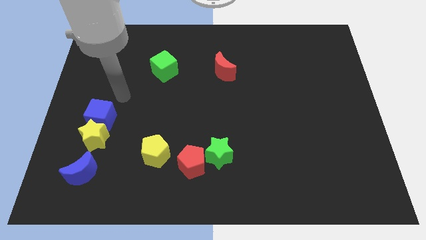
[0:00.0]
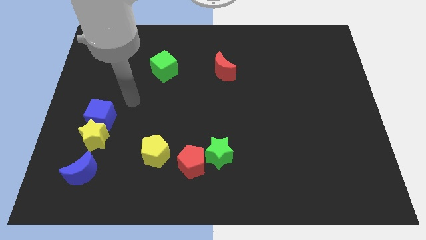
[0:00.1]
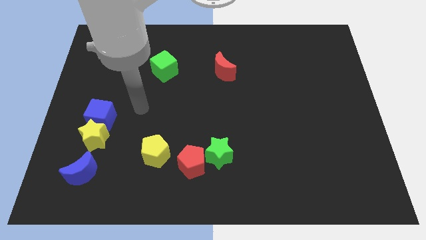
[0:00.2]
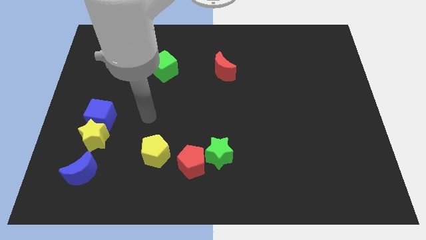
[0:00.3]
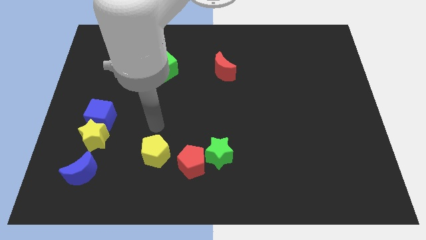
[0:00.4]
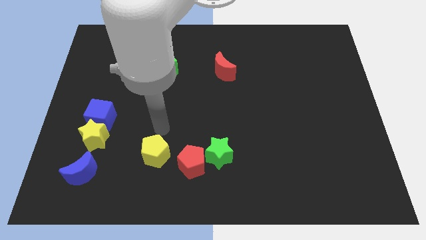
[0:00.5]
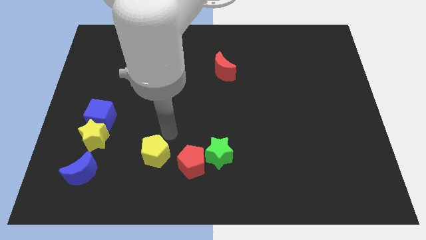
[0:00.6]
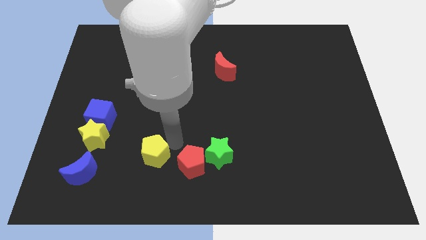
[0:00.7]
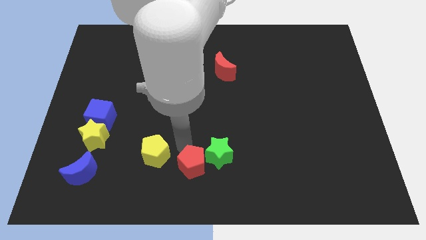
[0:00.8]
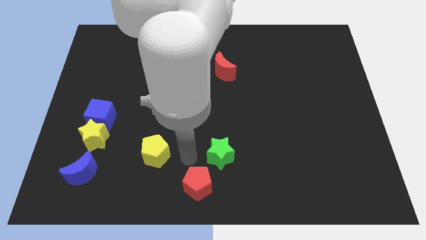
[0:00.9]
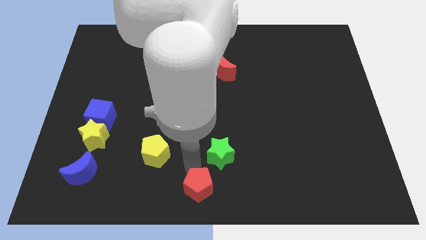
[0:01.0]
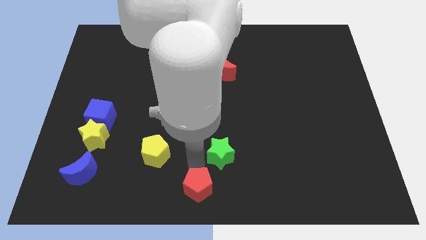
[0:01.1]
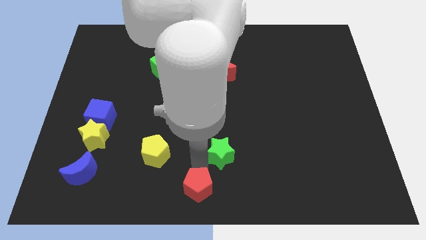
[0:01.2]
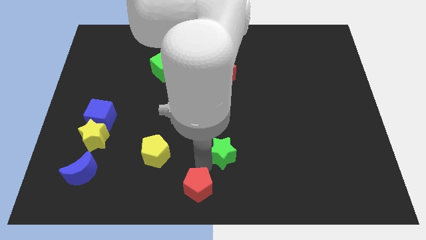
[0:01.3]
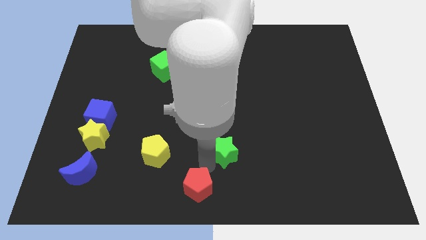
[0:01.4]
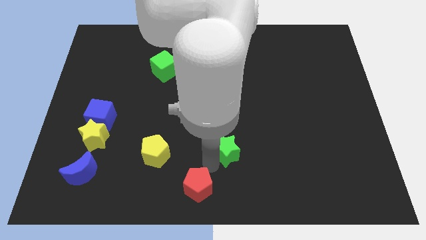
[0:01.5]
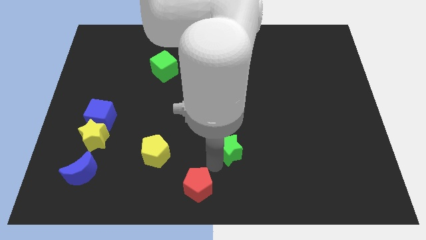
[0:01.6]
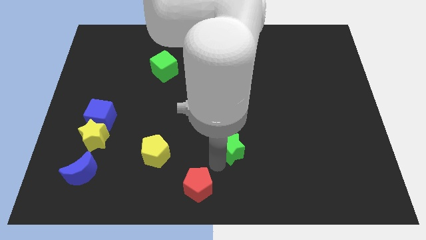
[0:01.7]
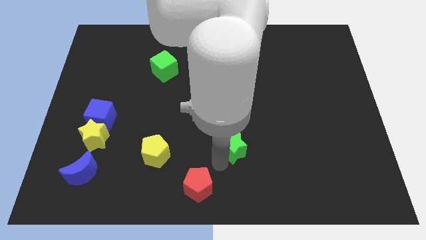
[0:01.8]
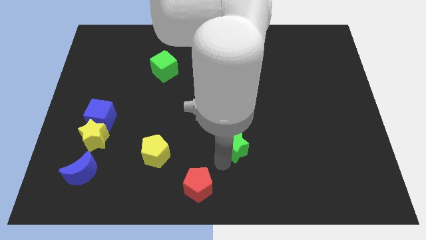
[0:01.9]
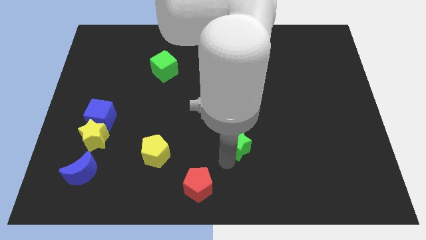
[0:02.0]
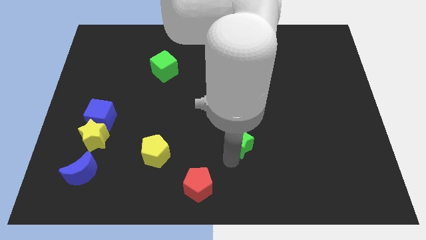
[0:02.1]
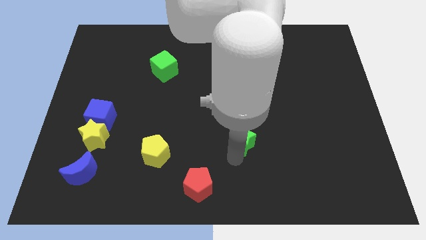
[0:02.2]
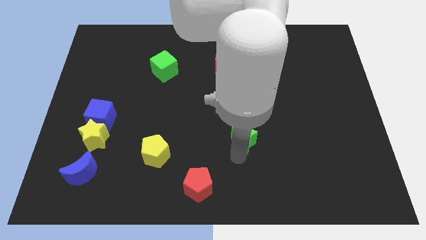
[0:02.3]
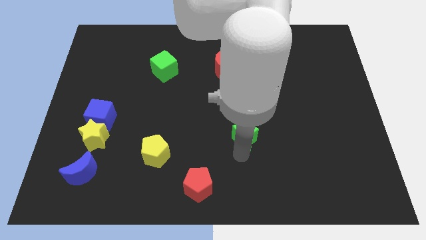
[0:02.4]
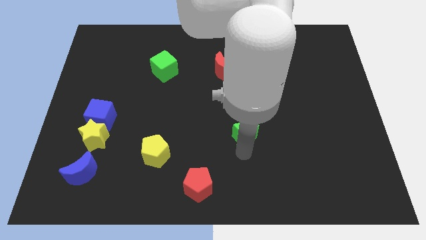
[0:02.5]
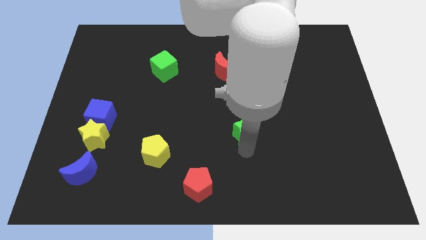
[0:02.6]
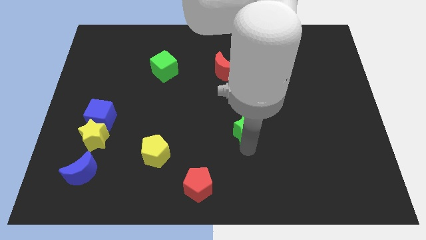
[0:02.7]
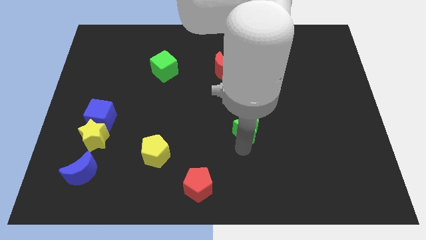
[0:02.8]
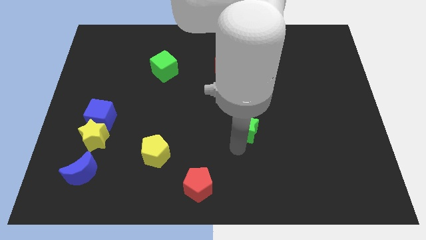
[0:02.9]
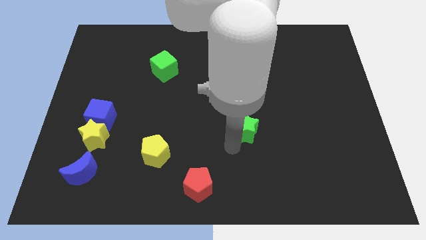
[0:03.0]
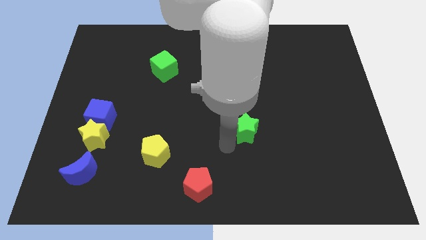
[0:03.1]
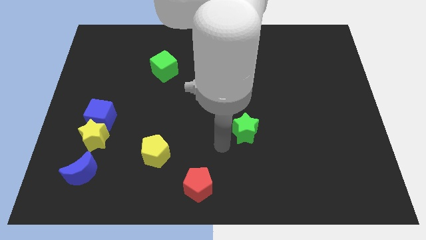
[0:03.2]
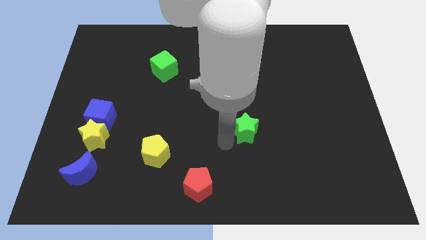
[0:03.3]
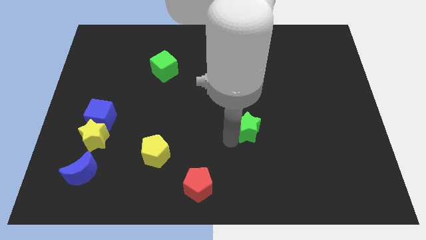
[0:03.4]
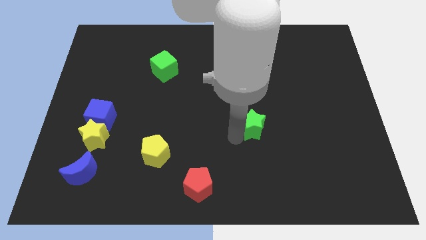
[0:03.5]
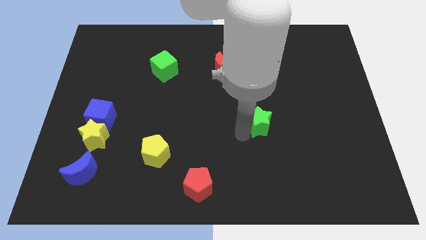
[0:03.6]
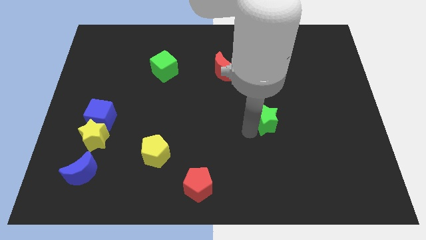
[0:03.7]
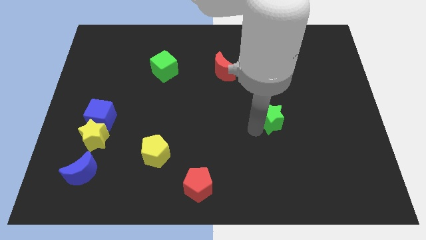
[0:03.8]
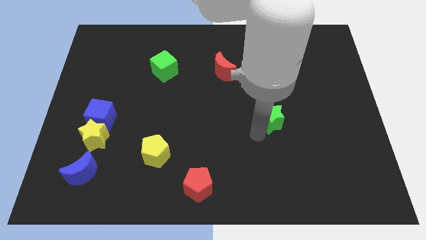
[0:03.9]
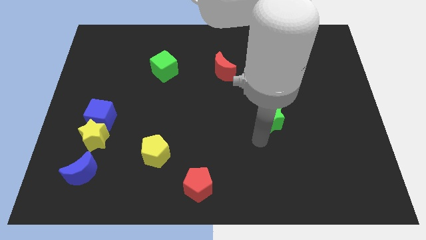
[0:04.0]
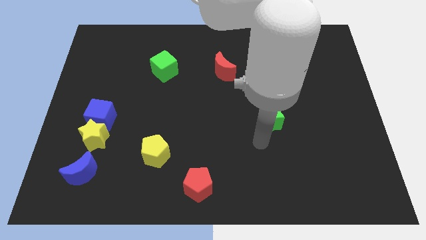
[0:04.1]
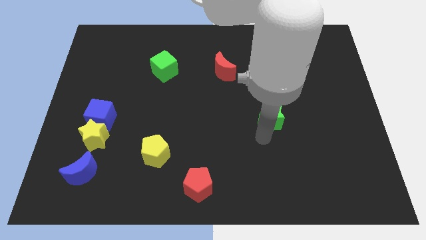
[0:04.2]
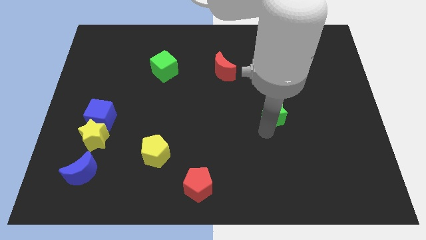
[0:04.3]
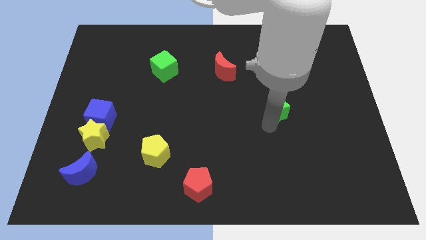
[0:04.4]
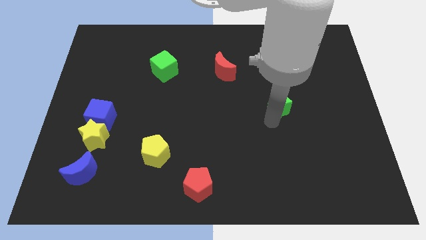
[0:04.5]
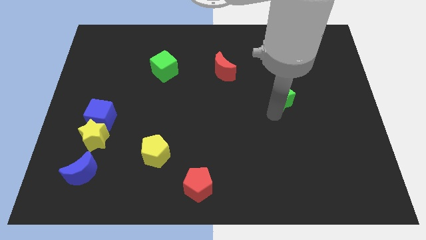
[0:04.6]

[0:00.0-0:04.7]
move the green star up and to the right diagonally

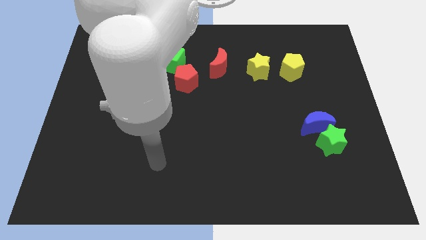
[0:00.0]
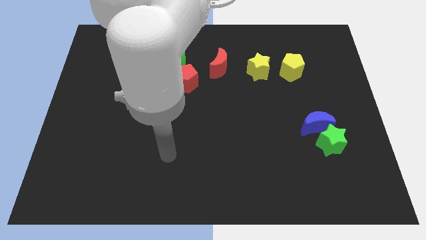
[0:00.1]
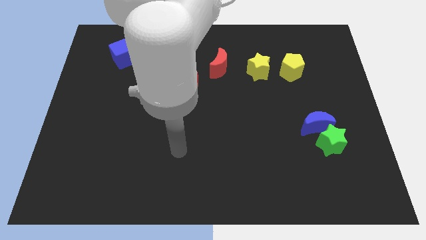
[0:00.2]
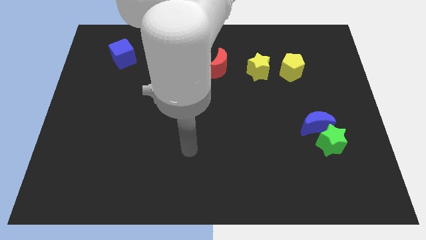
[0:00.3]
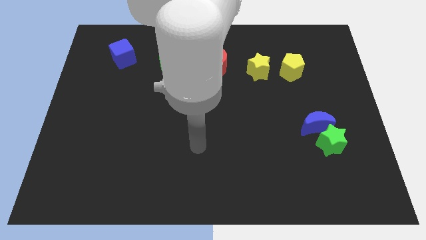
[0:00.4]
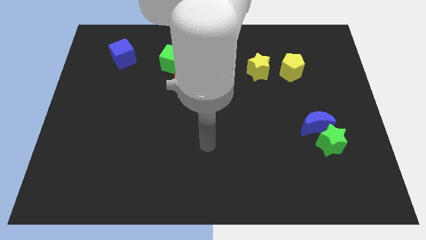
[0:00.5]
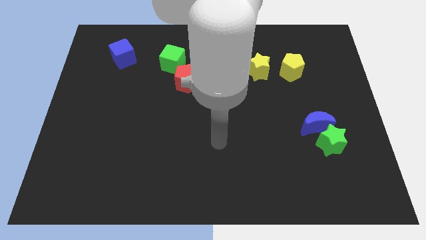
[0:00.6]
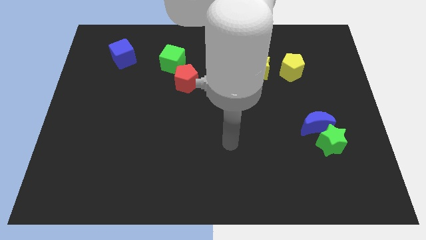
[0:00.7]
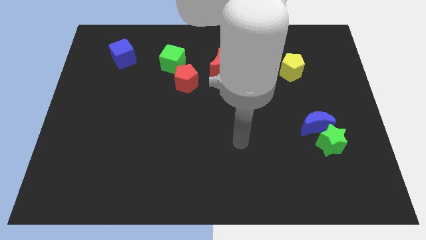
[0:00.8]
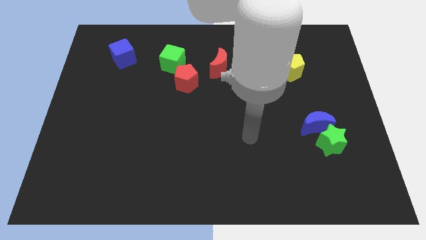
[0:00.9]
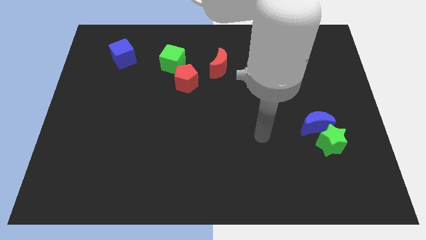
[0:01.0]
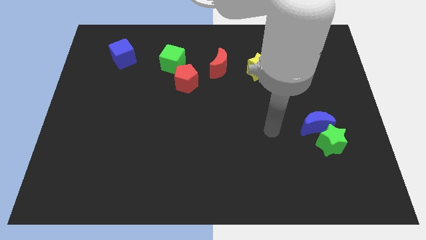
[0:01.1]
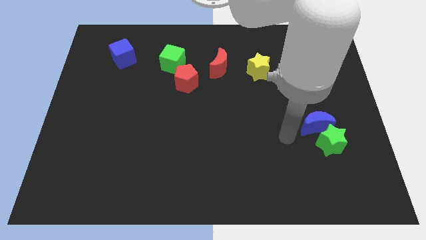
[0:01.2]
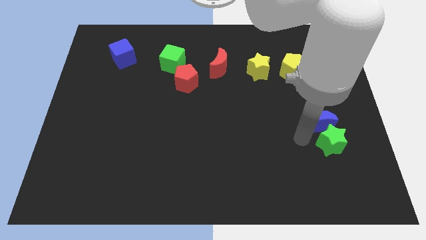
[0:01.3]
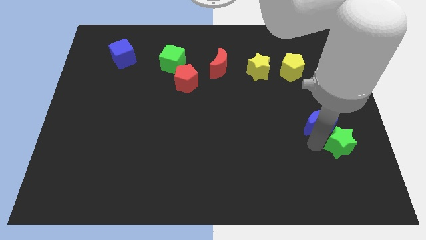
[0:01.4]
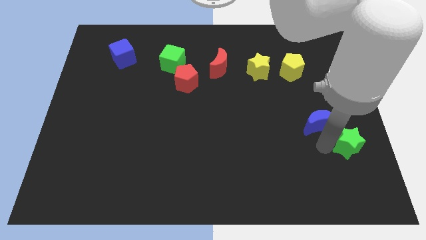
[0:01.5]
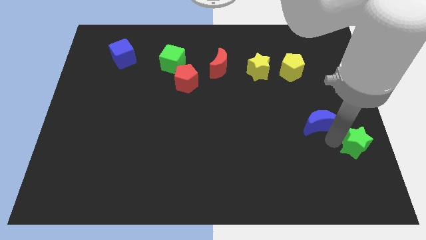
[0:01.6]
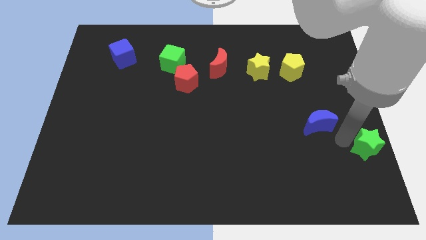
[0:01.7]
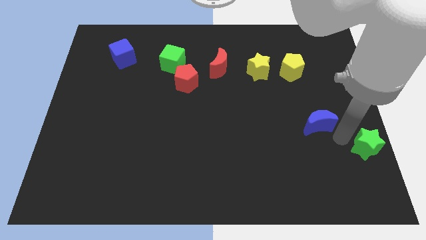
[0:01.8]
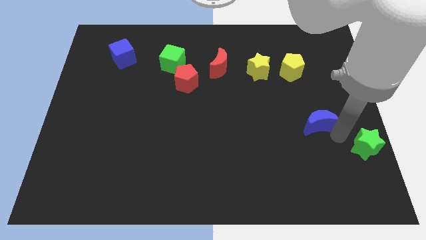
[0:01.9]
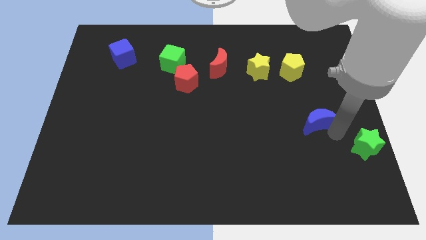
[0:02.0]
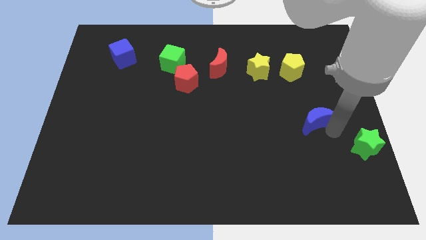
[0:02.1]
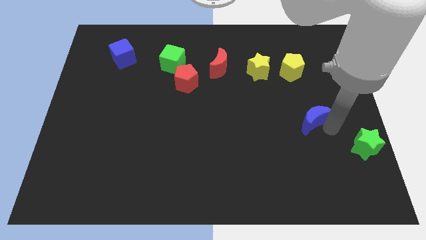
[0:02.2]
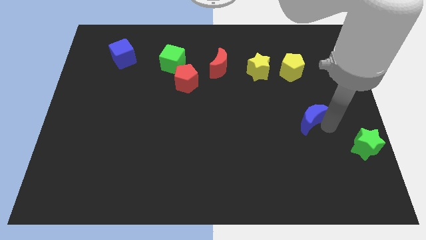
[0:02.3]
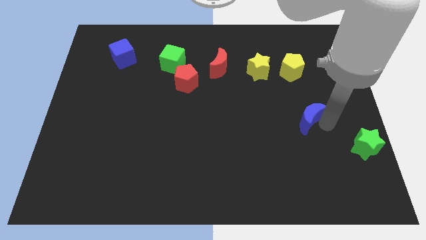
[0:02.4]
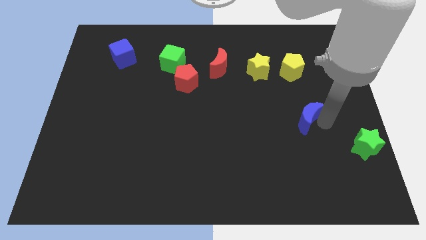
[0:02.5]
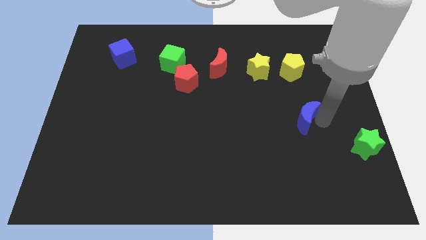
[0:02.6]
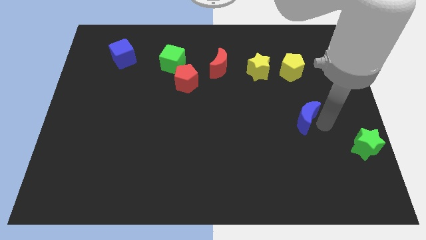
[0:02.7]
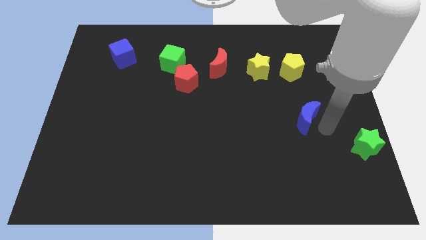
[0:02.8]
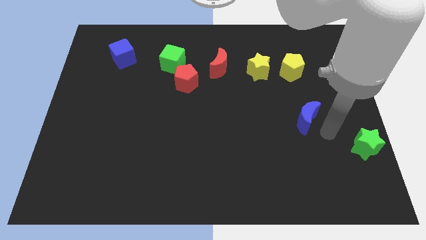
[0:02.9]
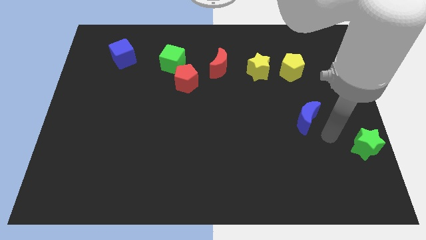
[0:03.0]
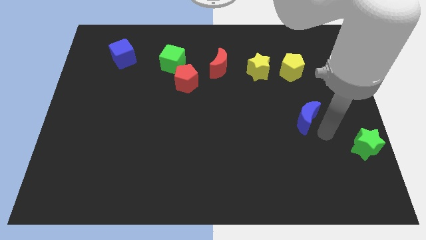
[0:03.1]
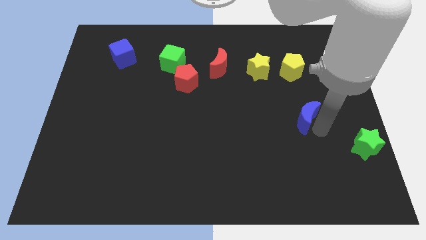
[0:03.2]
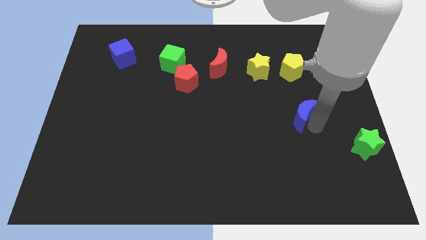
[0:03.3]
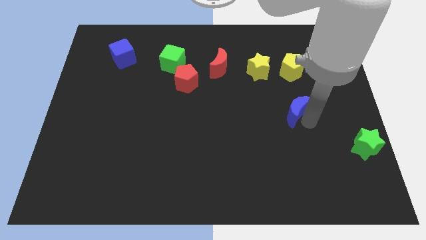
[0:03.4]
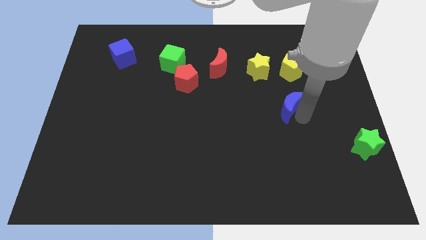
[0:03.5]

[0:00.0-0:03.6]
slightly slide the blue moon diagonally up and left

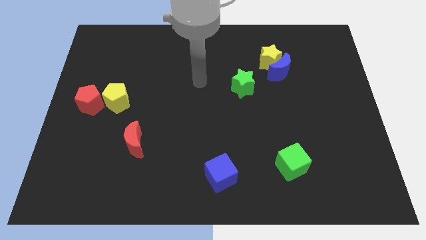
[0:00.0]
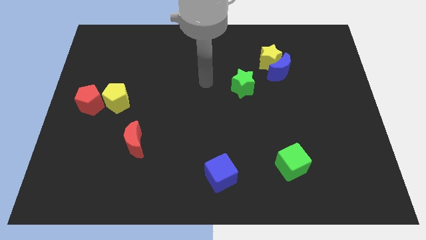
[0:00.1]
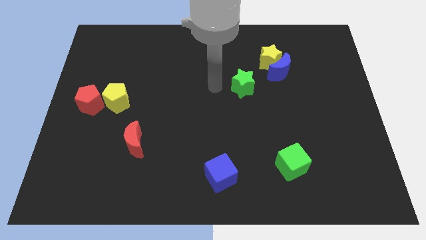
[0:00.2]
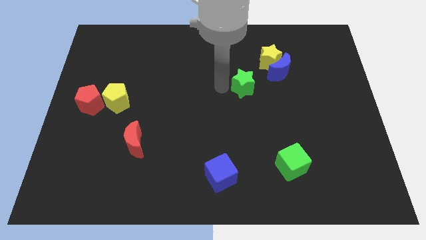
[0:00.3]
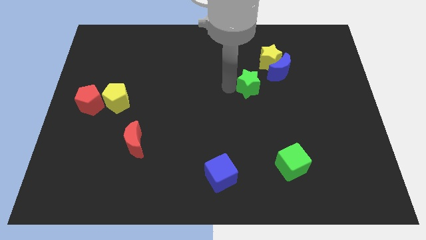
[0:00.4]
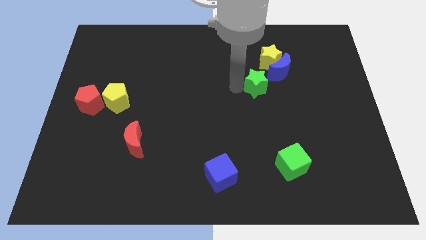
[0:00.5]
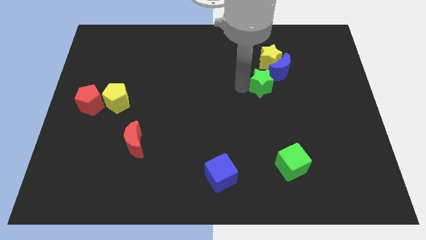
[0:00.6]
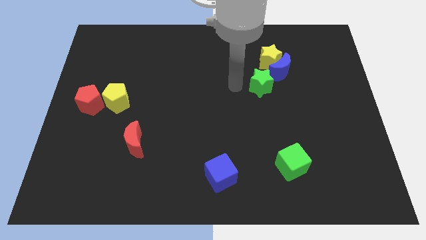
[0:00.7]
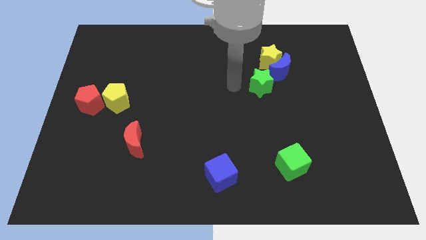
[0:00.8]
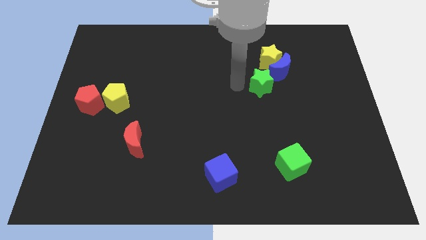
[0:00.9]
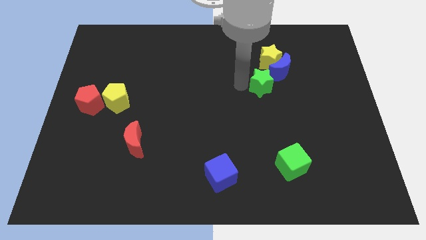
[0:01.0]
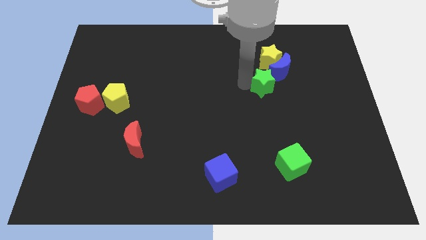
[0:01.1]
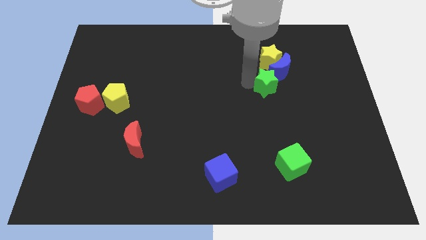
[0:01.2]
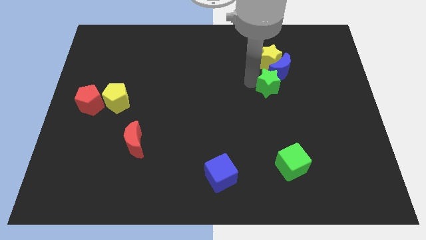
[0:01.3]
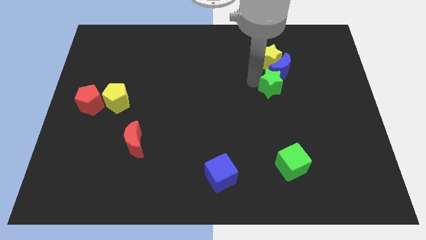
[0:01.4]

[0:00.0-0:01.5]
slide the green star somewhat to the right
